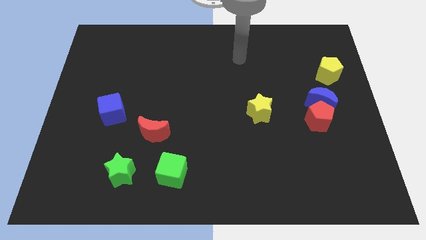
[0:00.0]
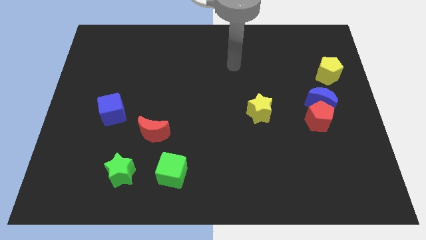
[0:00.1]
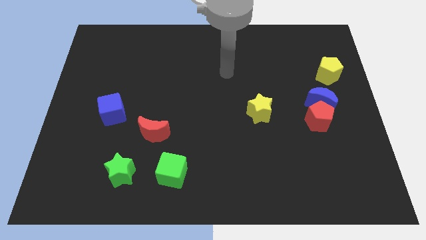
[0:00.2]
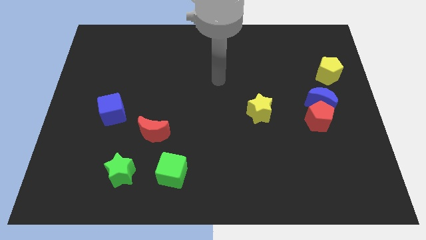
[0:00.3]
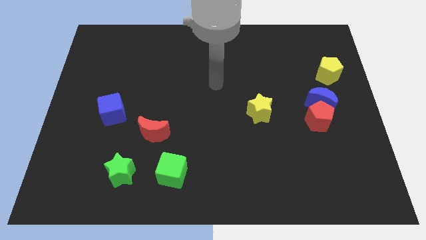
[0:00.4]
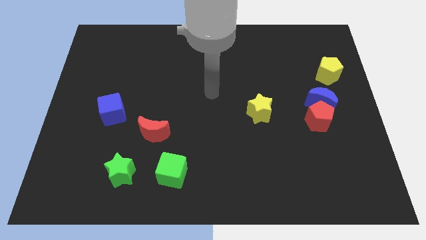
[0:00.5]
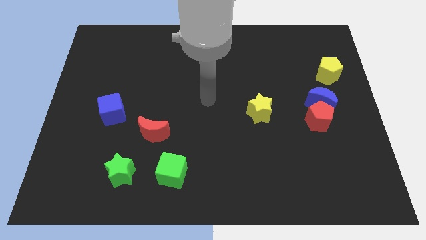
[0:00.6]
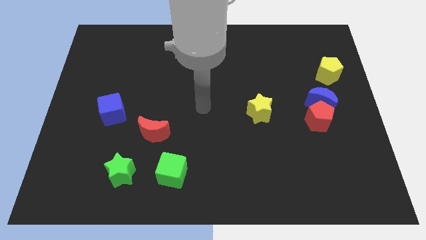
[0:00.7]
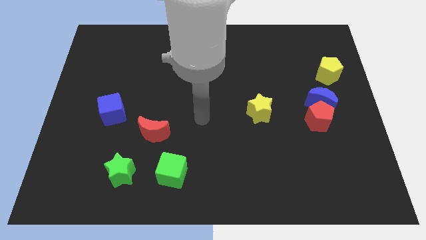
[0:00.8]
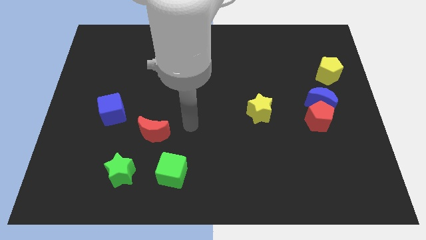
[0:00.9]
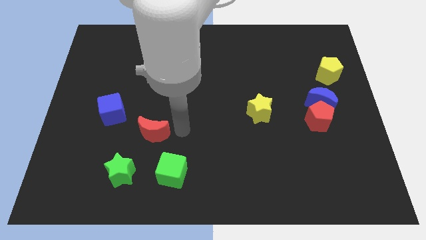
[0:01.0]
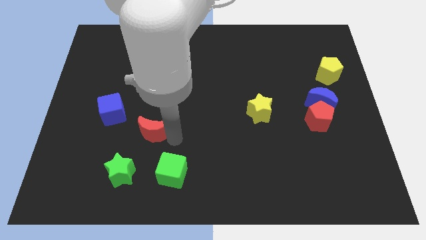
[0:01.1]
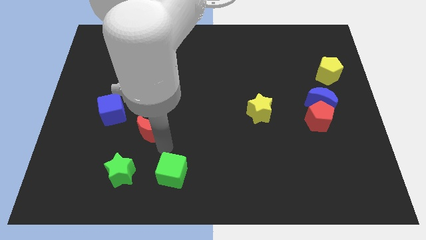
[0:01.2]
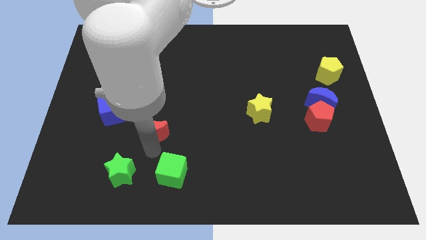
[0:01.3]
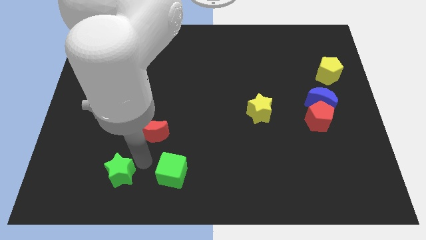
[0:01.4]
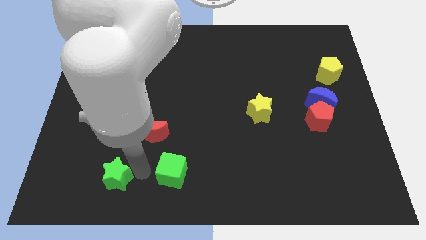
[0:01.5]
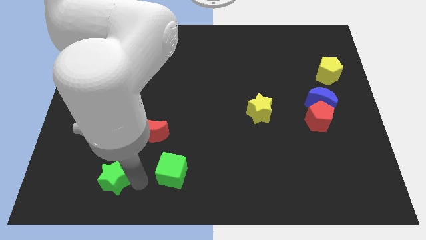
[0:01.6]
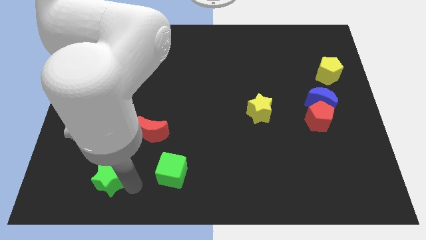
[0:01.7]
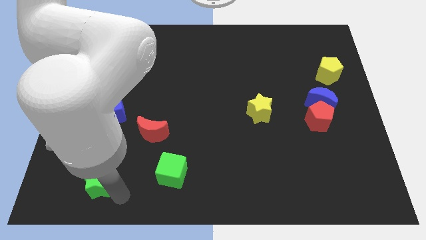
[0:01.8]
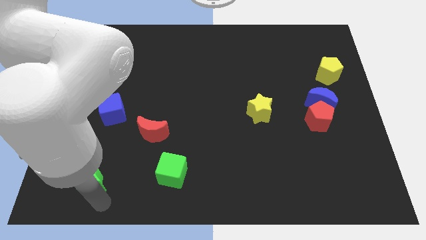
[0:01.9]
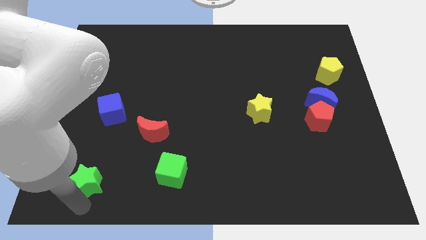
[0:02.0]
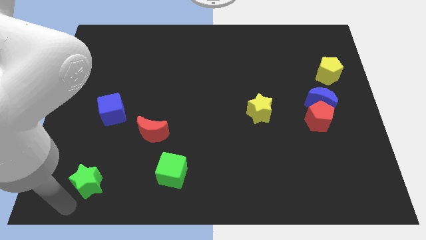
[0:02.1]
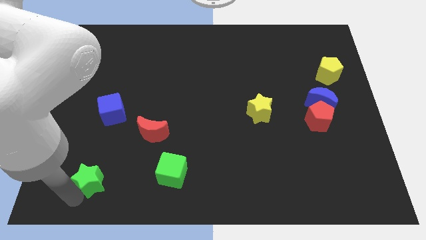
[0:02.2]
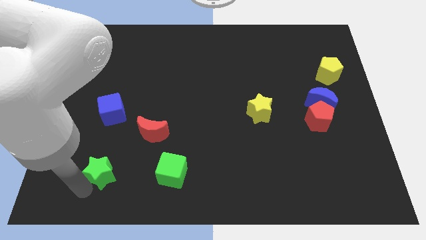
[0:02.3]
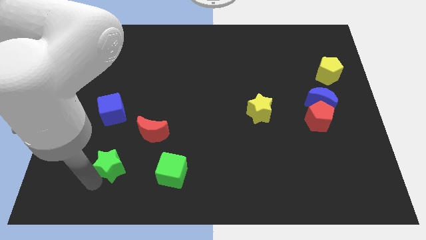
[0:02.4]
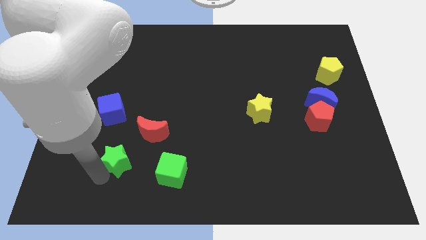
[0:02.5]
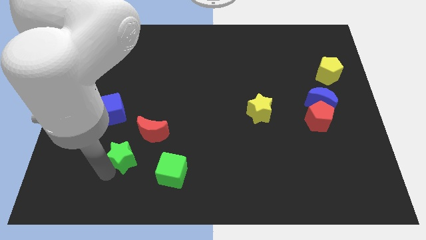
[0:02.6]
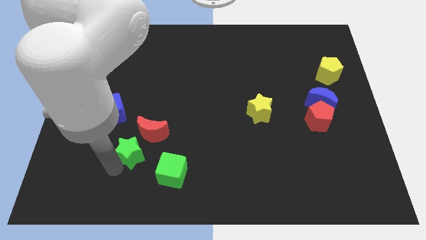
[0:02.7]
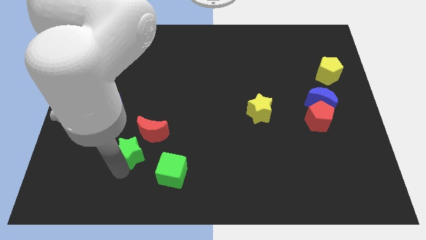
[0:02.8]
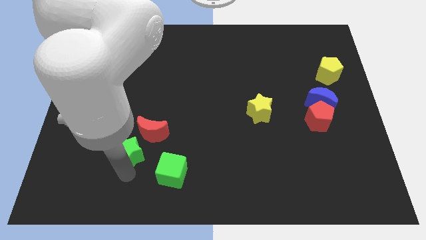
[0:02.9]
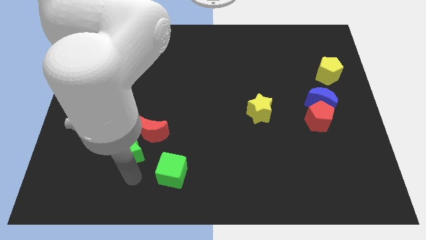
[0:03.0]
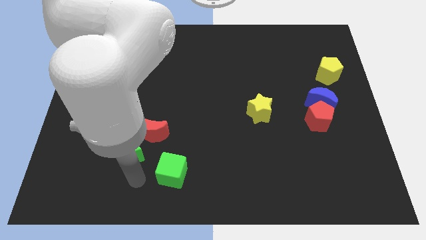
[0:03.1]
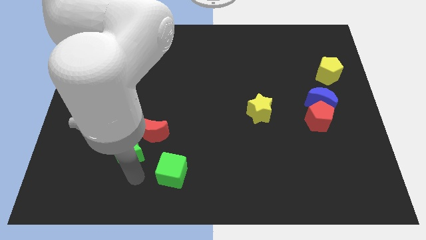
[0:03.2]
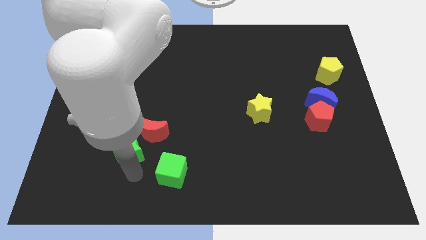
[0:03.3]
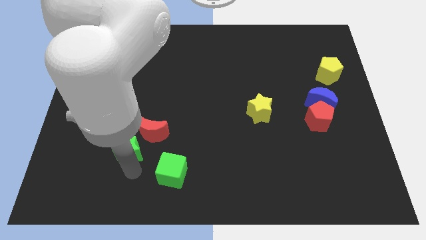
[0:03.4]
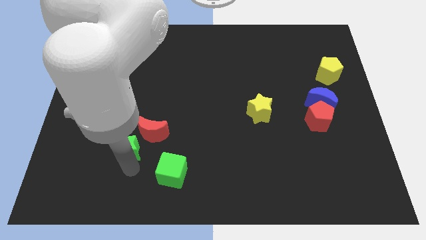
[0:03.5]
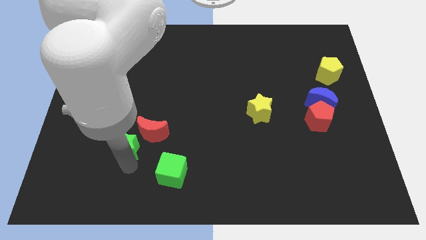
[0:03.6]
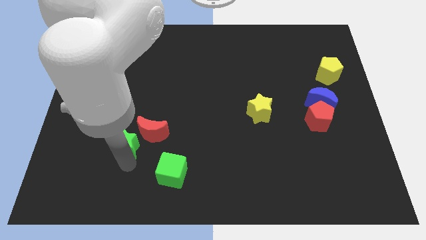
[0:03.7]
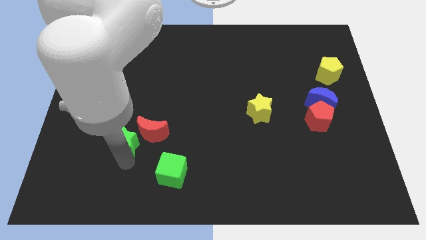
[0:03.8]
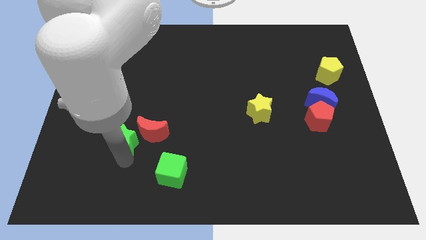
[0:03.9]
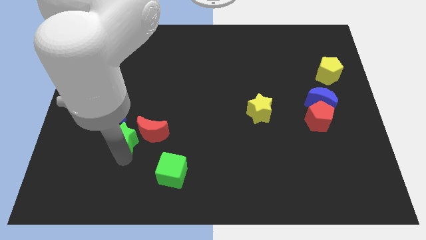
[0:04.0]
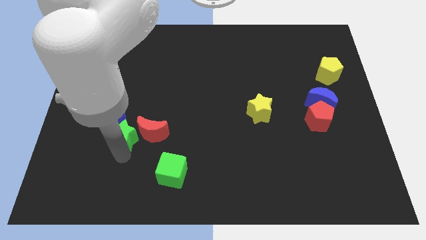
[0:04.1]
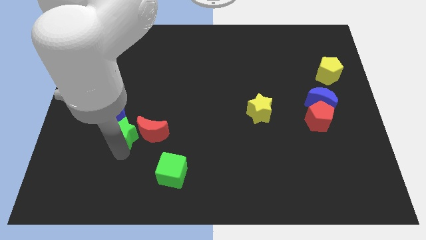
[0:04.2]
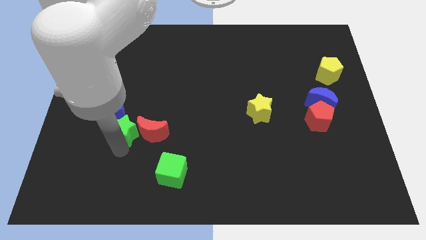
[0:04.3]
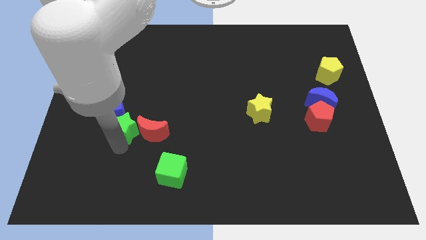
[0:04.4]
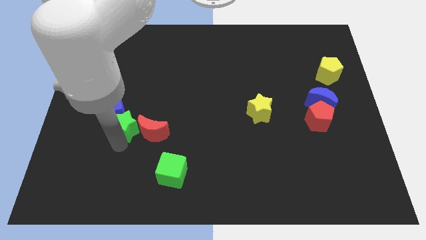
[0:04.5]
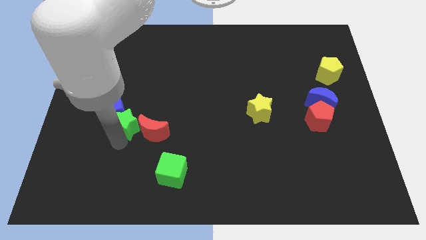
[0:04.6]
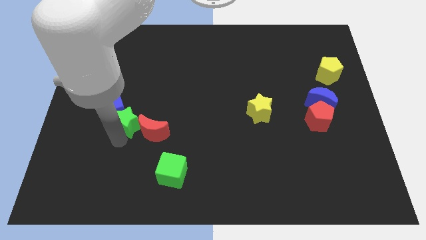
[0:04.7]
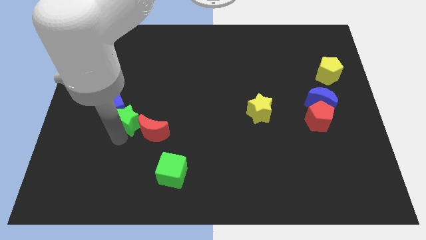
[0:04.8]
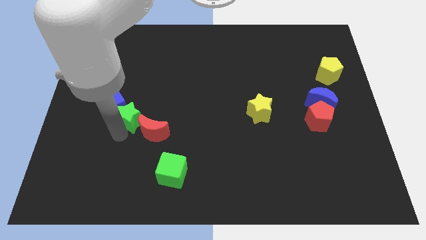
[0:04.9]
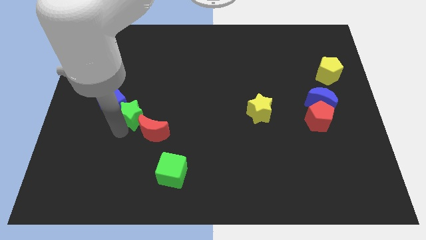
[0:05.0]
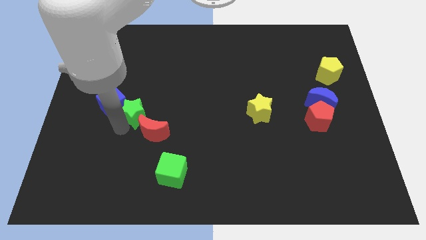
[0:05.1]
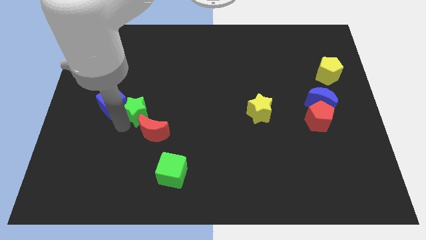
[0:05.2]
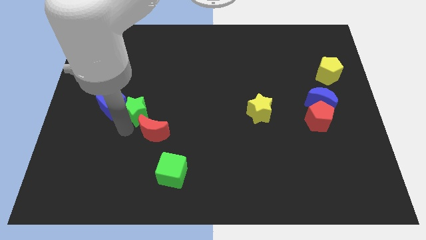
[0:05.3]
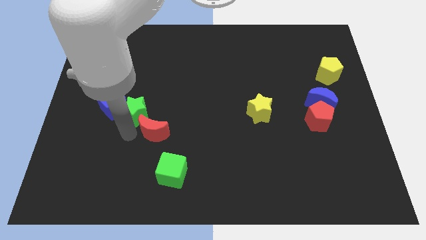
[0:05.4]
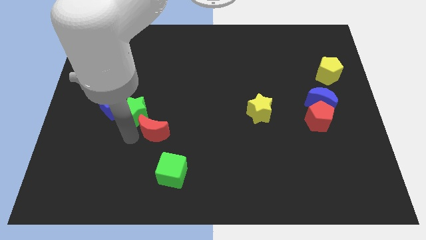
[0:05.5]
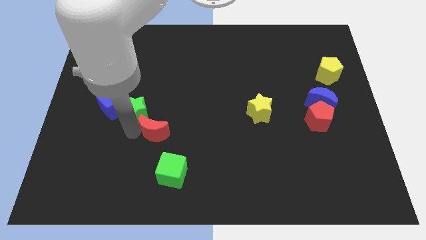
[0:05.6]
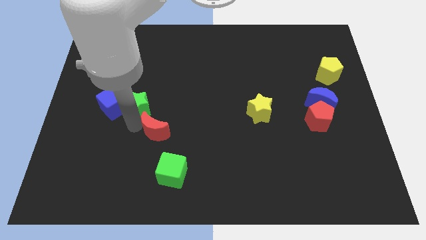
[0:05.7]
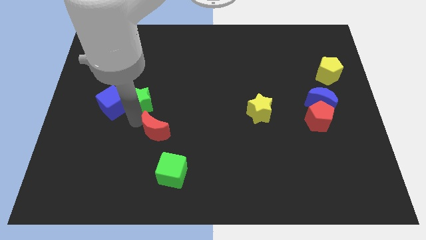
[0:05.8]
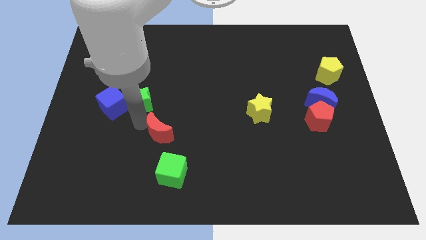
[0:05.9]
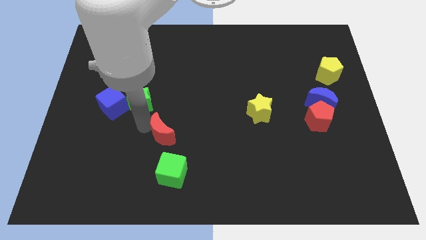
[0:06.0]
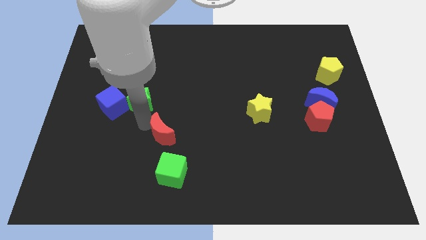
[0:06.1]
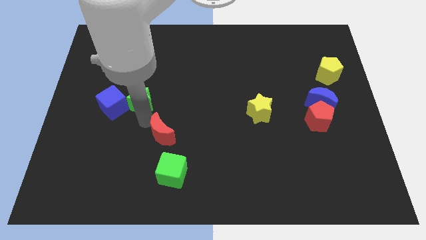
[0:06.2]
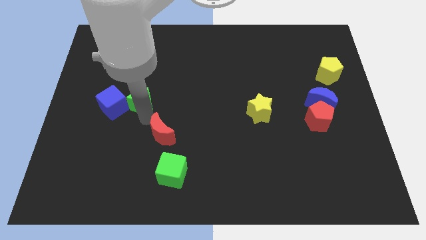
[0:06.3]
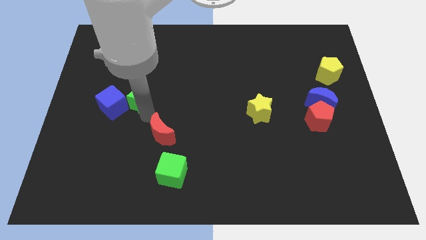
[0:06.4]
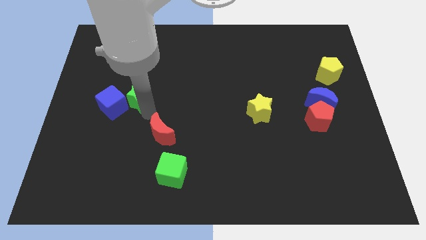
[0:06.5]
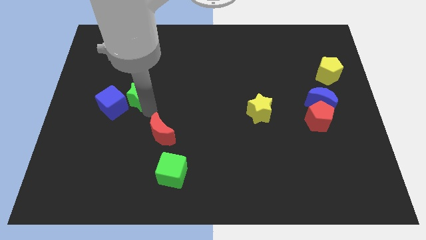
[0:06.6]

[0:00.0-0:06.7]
move the green star up
